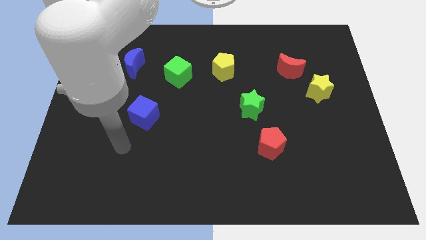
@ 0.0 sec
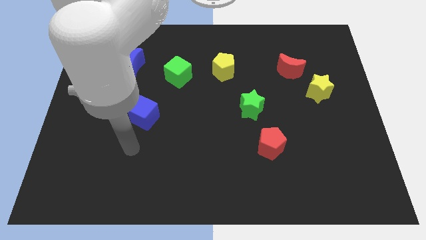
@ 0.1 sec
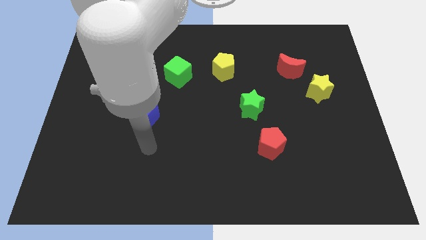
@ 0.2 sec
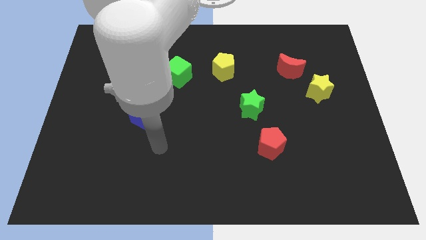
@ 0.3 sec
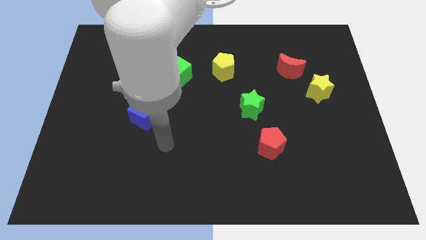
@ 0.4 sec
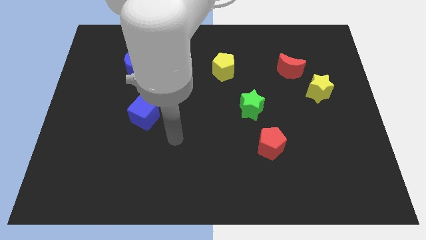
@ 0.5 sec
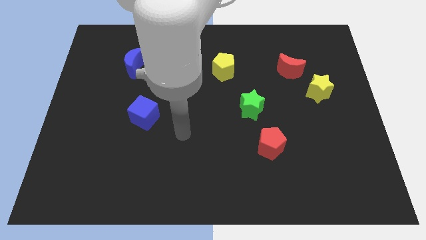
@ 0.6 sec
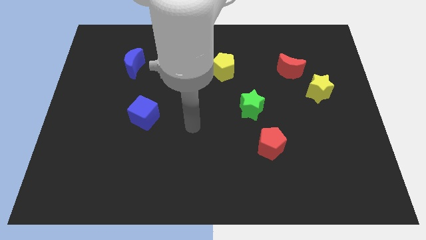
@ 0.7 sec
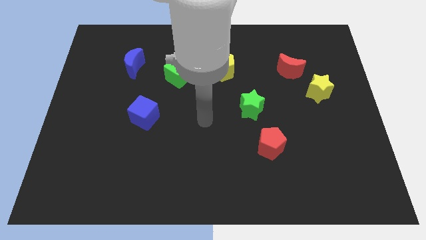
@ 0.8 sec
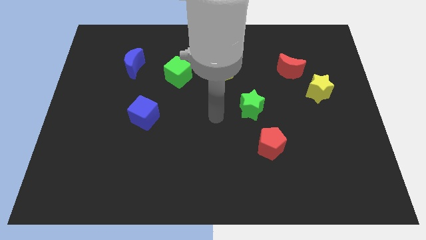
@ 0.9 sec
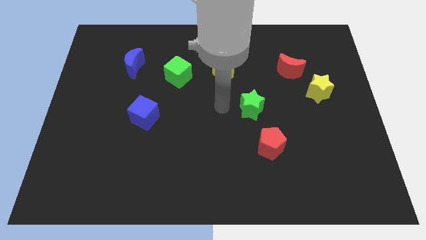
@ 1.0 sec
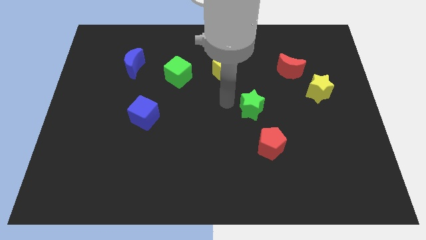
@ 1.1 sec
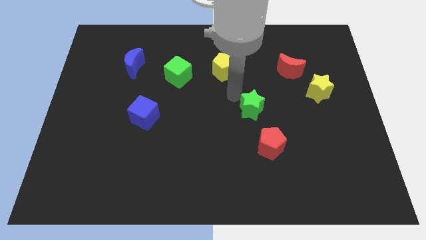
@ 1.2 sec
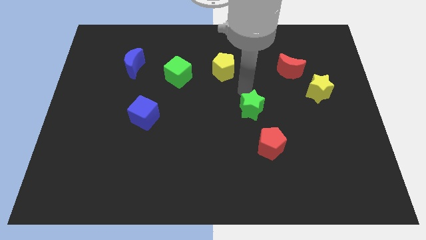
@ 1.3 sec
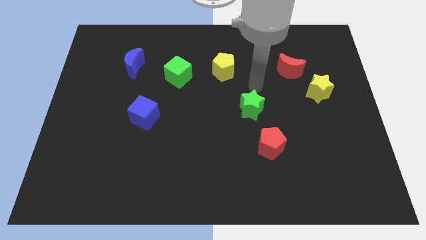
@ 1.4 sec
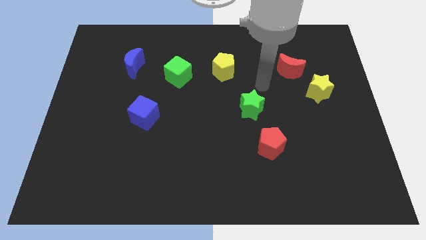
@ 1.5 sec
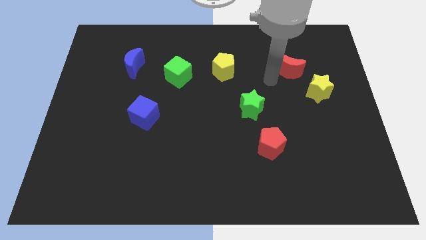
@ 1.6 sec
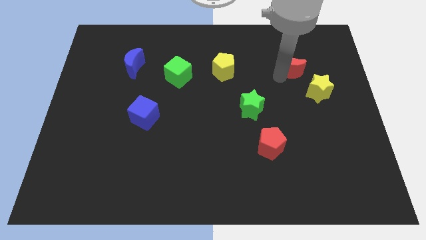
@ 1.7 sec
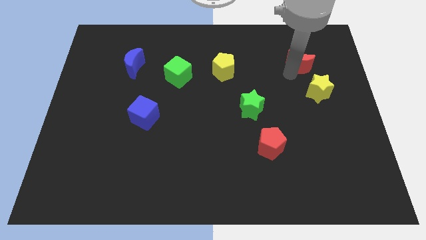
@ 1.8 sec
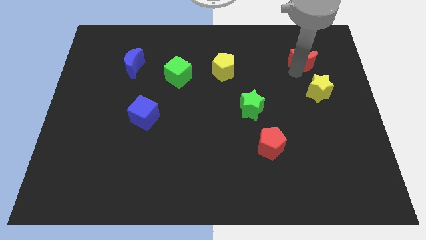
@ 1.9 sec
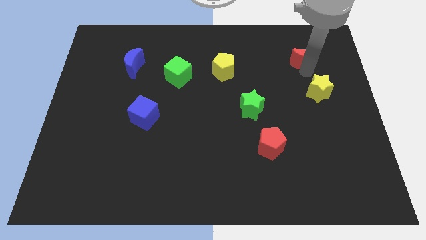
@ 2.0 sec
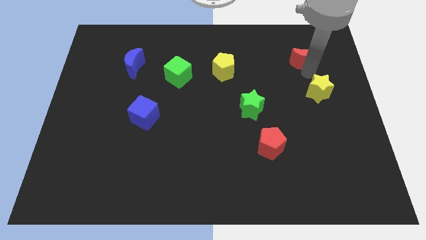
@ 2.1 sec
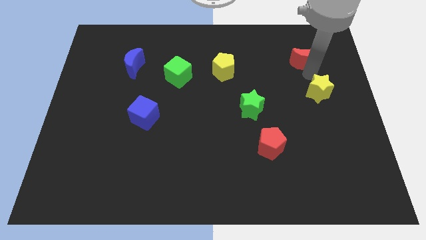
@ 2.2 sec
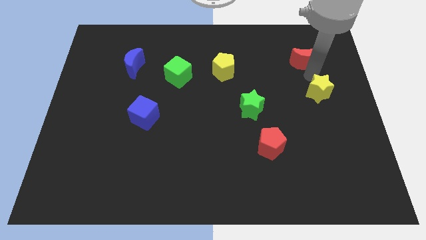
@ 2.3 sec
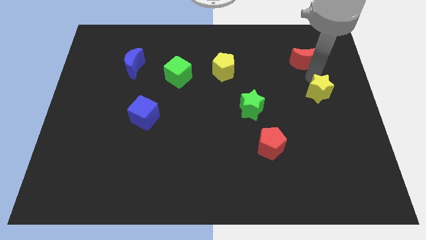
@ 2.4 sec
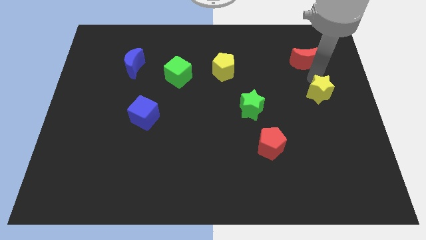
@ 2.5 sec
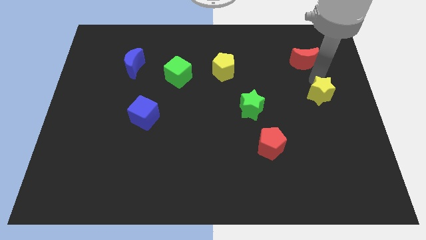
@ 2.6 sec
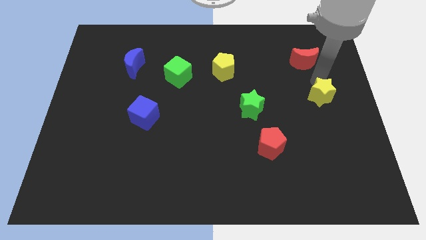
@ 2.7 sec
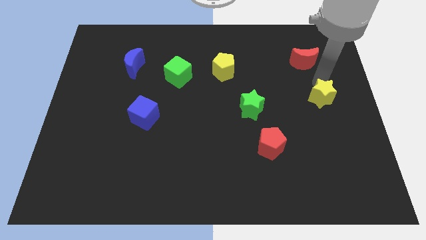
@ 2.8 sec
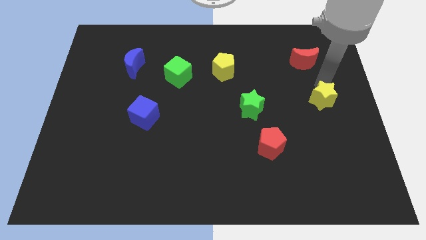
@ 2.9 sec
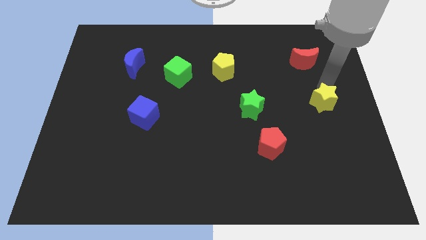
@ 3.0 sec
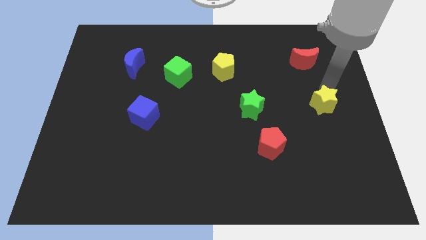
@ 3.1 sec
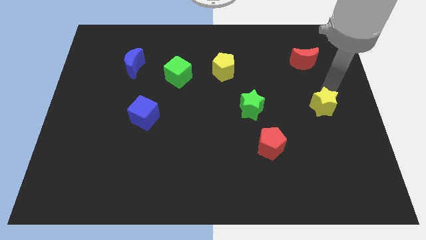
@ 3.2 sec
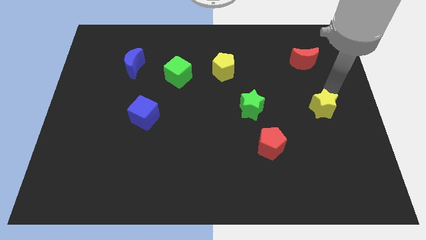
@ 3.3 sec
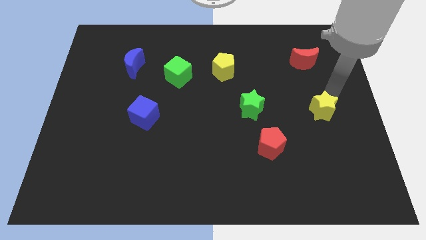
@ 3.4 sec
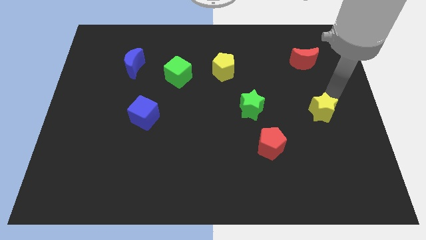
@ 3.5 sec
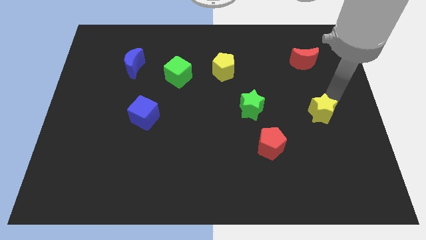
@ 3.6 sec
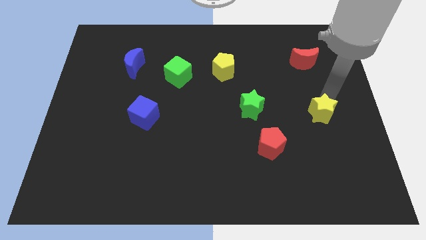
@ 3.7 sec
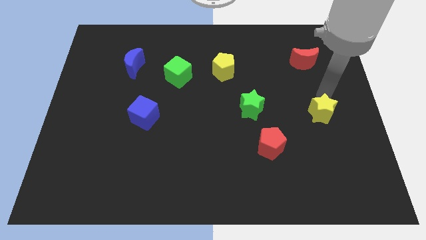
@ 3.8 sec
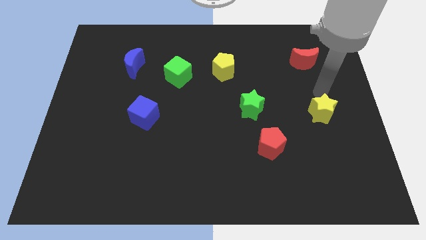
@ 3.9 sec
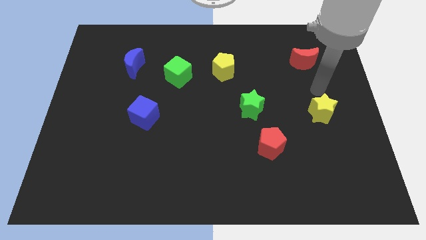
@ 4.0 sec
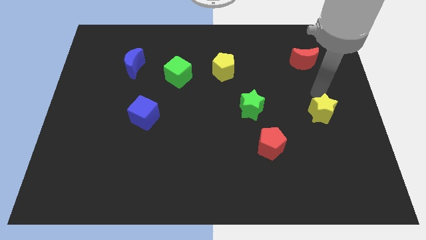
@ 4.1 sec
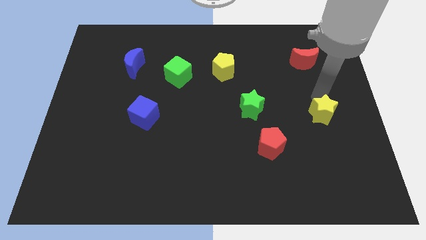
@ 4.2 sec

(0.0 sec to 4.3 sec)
push the yellow star slightly down

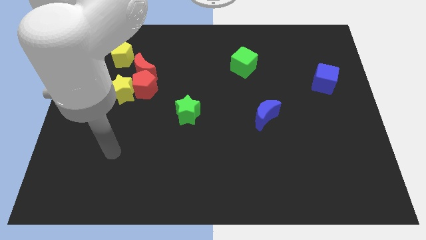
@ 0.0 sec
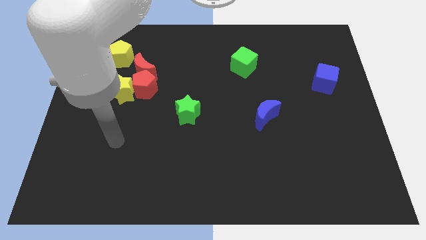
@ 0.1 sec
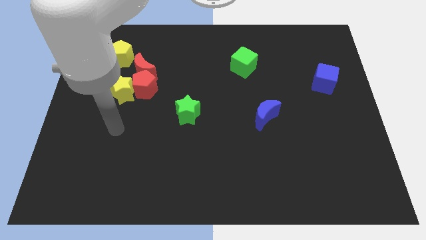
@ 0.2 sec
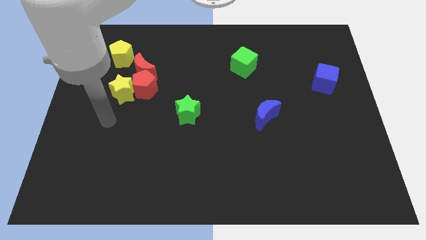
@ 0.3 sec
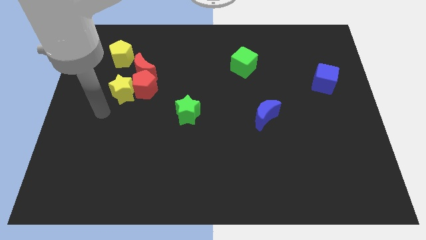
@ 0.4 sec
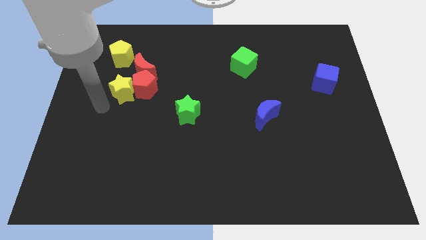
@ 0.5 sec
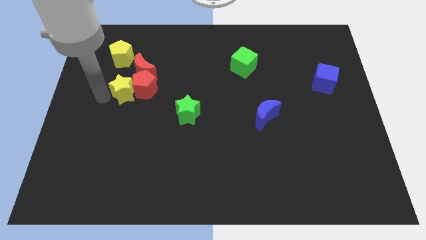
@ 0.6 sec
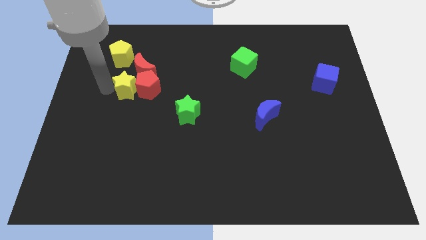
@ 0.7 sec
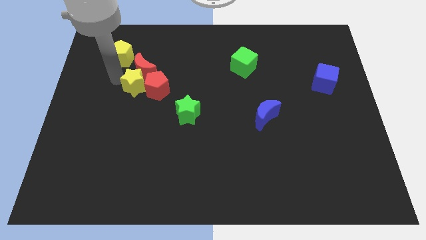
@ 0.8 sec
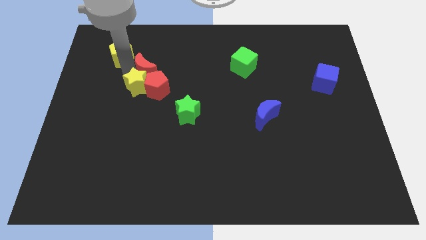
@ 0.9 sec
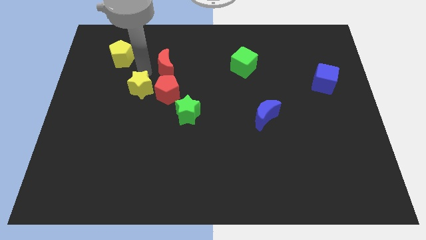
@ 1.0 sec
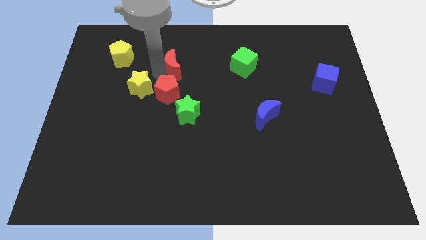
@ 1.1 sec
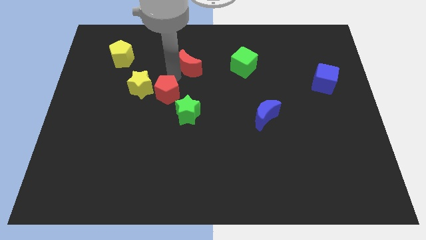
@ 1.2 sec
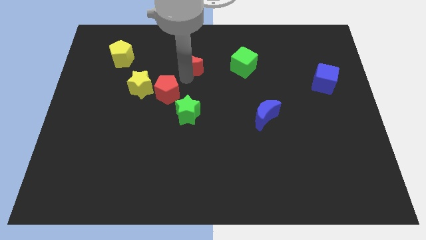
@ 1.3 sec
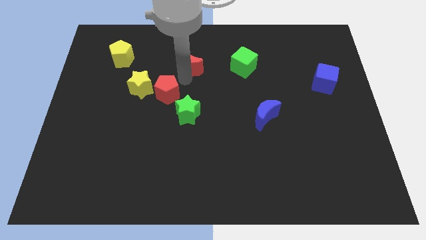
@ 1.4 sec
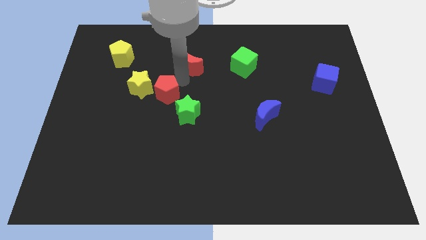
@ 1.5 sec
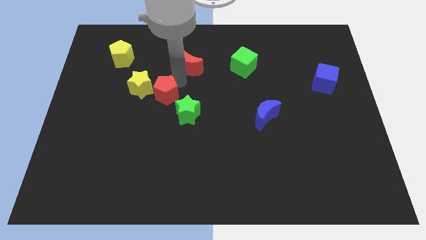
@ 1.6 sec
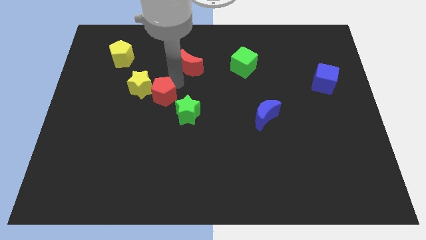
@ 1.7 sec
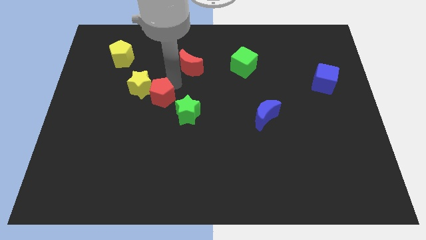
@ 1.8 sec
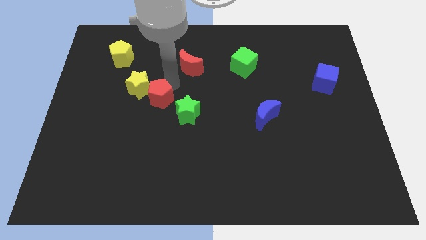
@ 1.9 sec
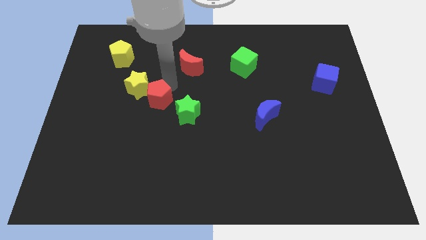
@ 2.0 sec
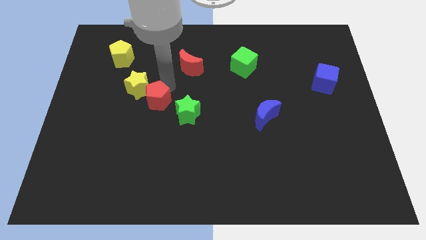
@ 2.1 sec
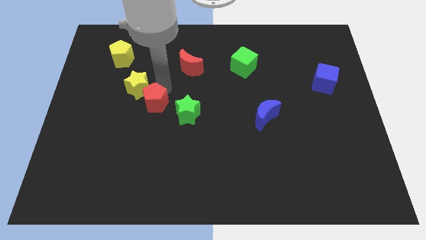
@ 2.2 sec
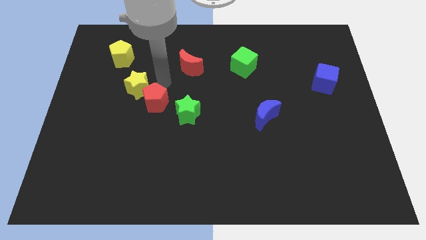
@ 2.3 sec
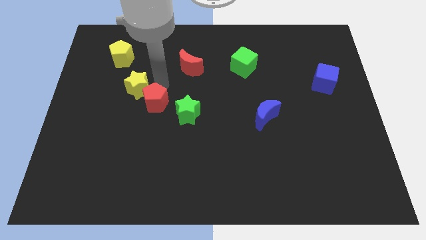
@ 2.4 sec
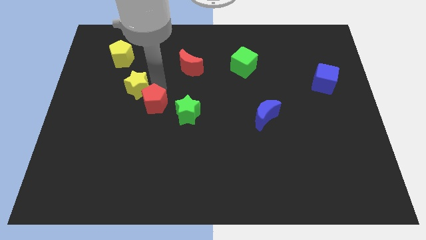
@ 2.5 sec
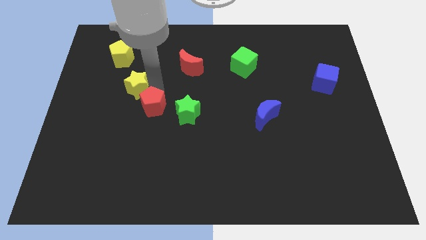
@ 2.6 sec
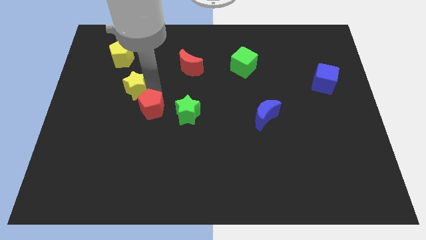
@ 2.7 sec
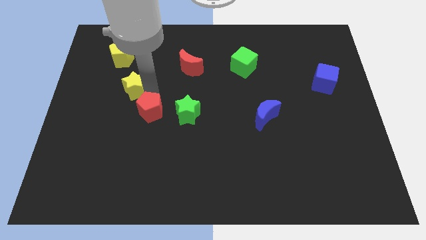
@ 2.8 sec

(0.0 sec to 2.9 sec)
move the red pentagon slightly down

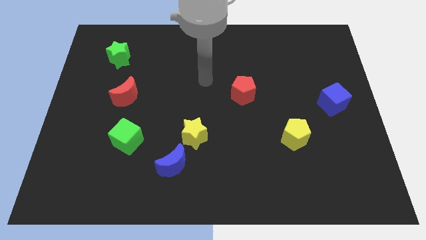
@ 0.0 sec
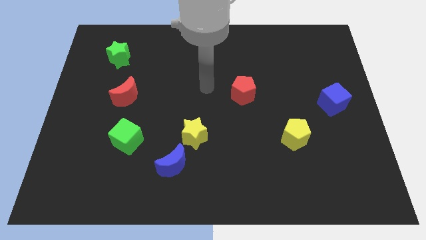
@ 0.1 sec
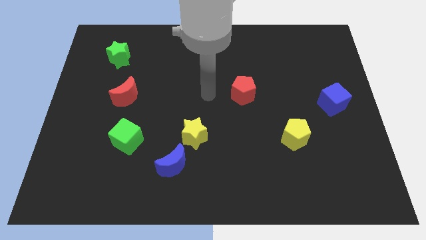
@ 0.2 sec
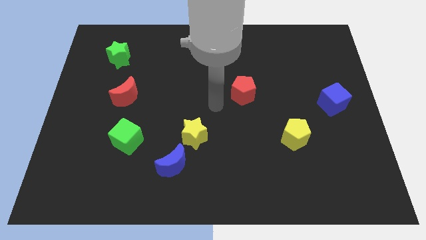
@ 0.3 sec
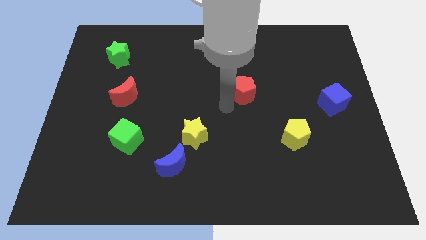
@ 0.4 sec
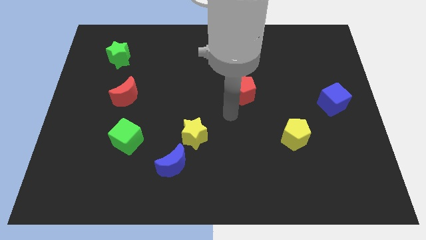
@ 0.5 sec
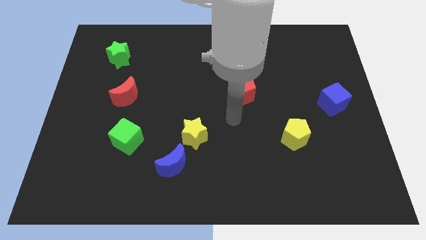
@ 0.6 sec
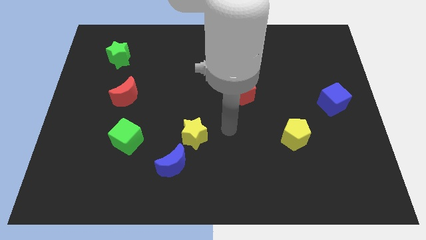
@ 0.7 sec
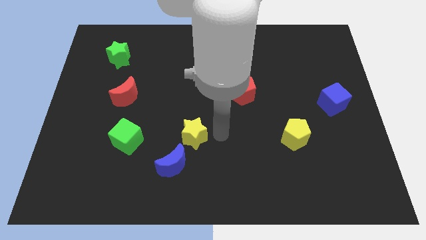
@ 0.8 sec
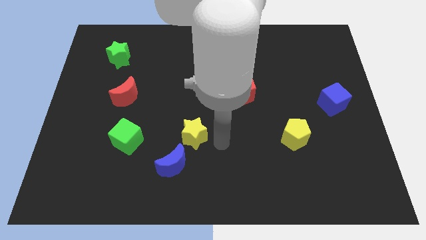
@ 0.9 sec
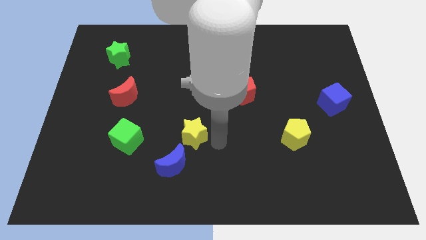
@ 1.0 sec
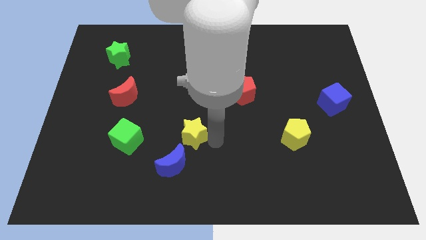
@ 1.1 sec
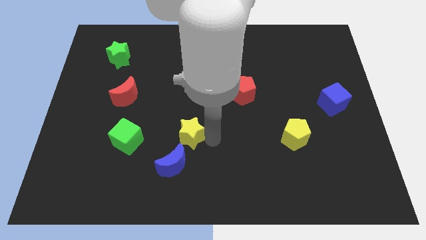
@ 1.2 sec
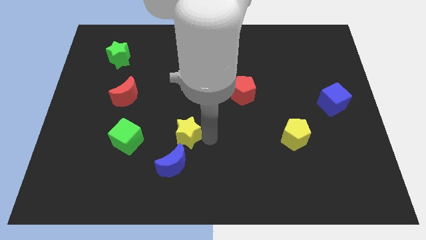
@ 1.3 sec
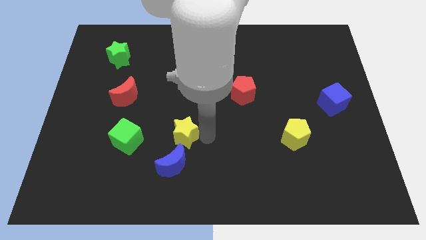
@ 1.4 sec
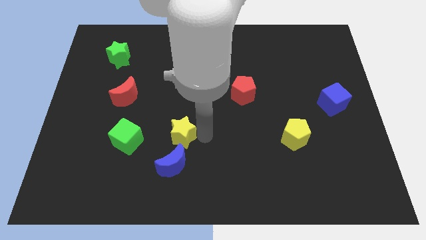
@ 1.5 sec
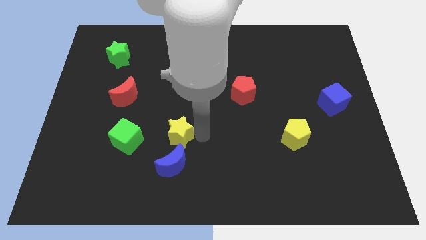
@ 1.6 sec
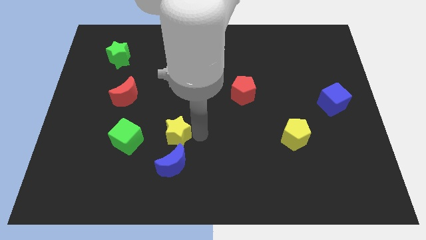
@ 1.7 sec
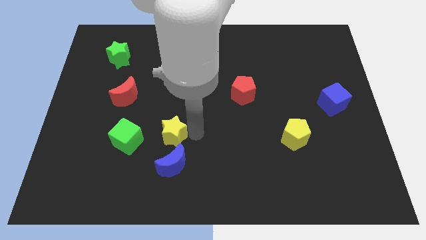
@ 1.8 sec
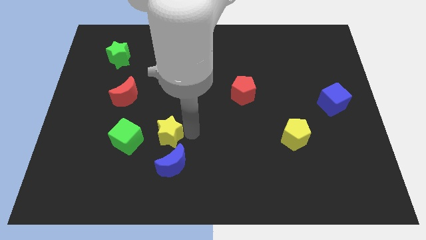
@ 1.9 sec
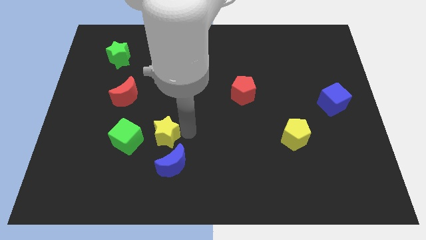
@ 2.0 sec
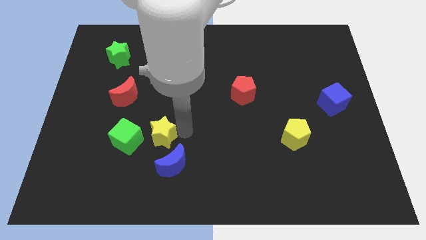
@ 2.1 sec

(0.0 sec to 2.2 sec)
slightly slide the yellow star to the left
